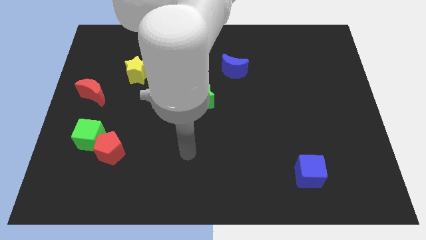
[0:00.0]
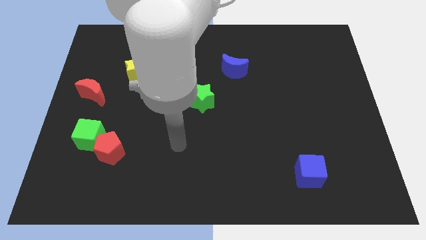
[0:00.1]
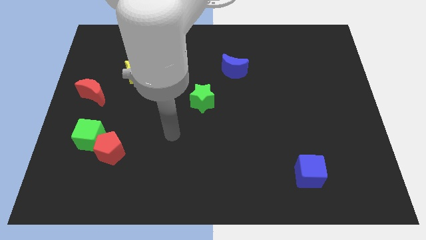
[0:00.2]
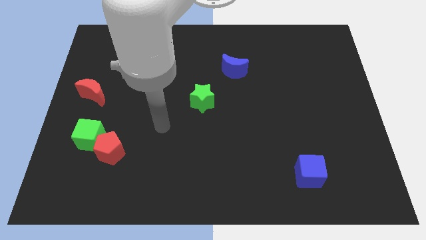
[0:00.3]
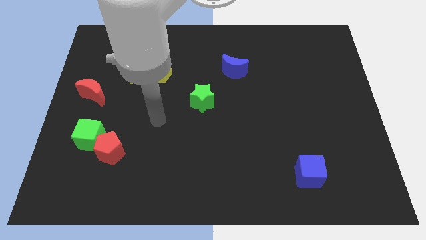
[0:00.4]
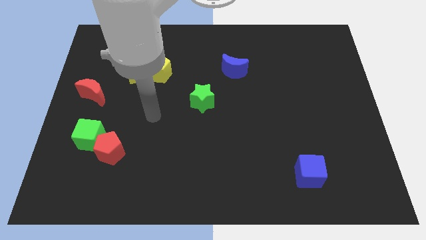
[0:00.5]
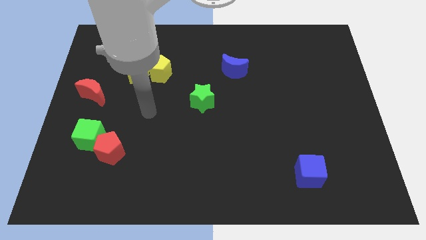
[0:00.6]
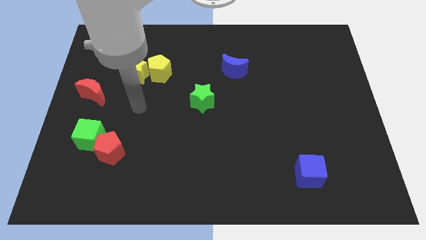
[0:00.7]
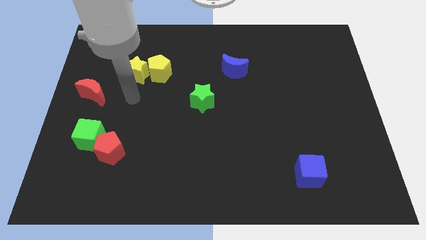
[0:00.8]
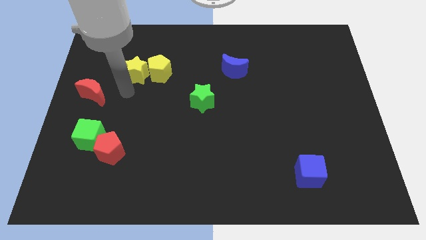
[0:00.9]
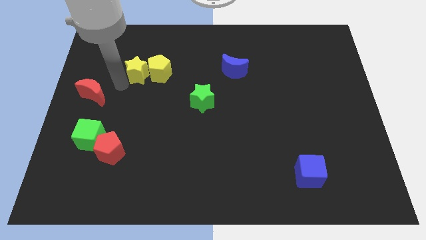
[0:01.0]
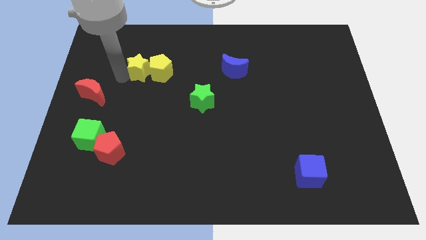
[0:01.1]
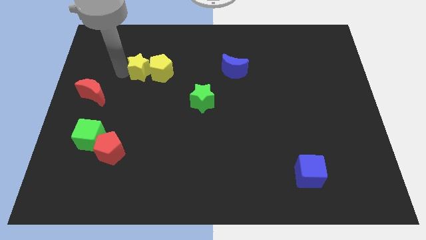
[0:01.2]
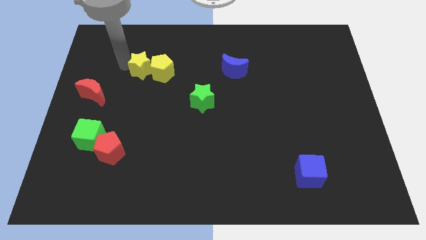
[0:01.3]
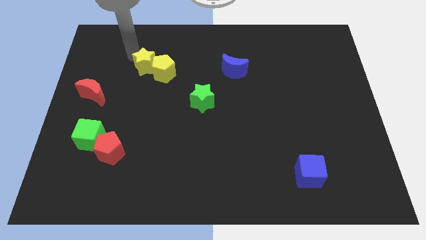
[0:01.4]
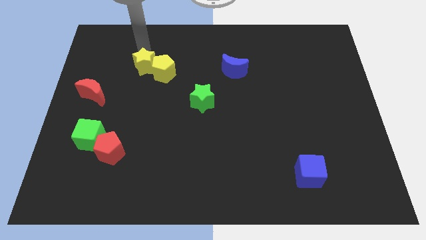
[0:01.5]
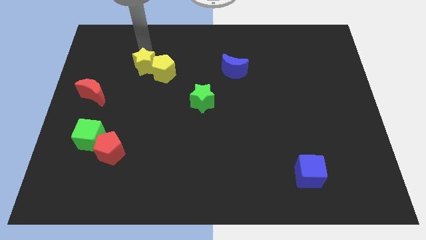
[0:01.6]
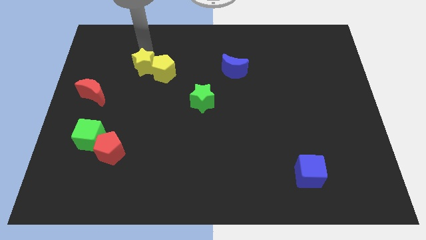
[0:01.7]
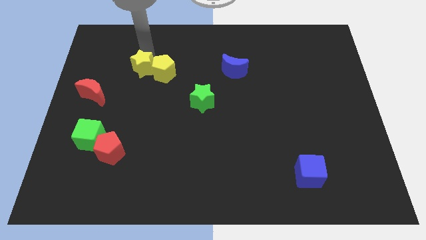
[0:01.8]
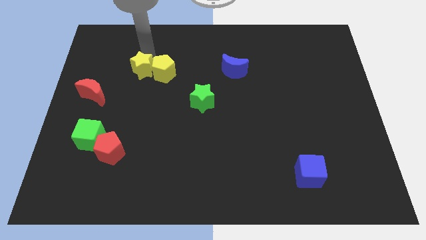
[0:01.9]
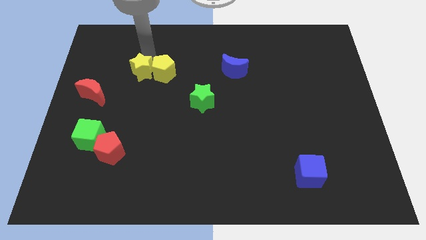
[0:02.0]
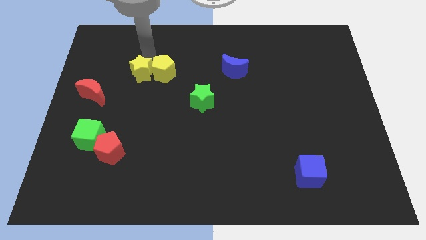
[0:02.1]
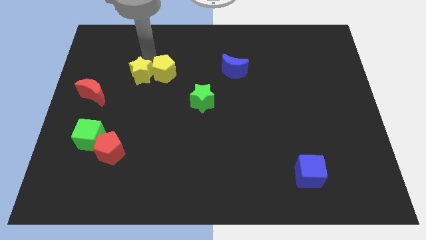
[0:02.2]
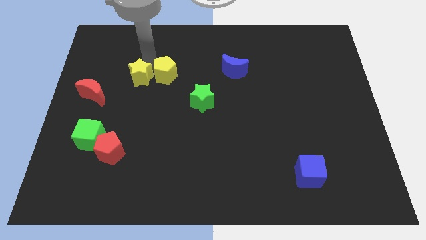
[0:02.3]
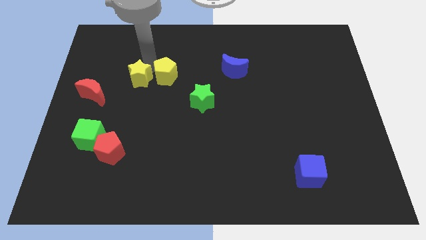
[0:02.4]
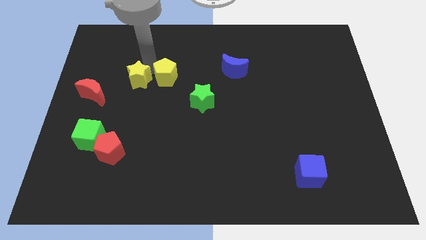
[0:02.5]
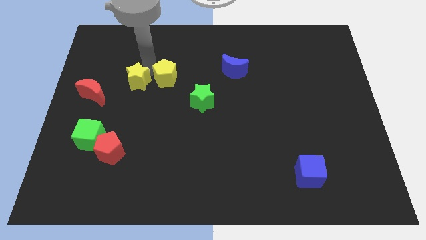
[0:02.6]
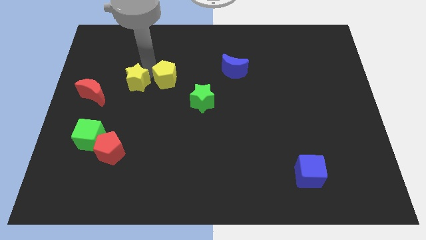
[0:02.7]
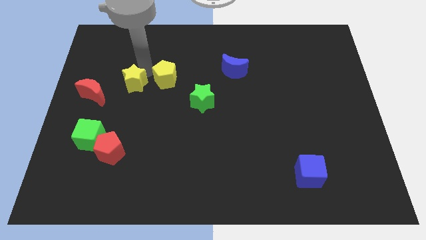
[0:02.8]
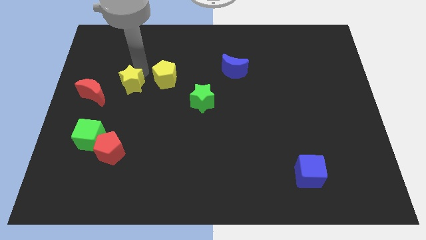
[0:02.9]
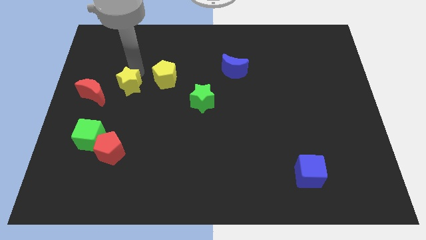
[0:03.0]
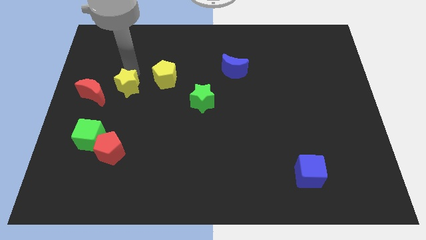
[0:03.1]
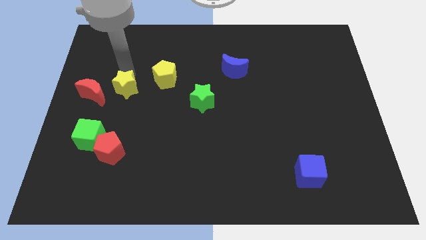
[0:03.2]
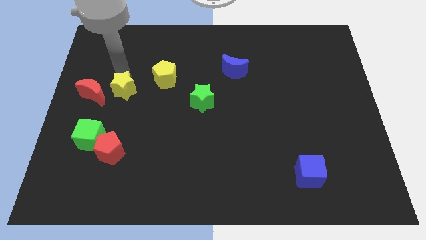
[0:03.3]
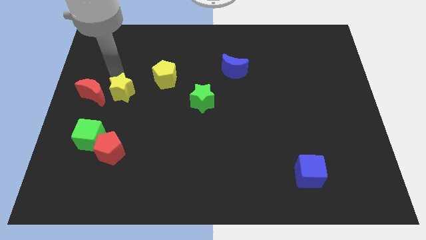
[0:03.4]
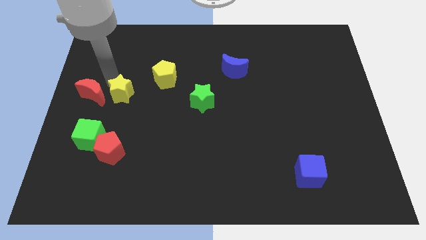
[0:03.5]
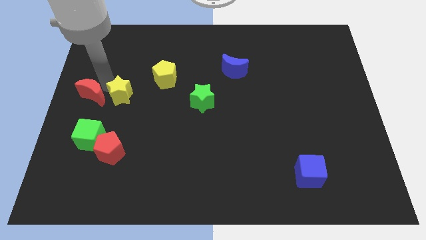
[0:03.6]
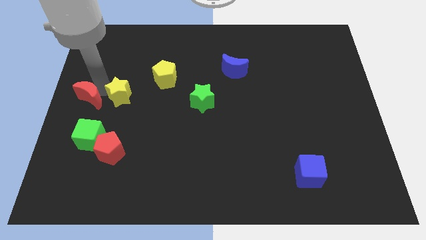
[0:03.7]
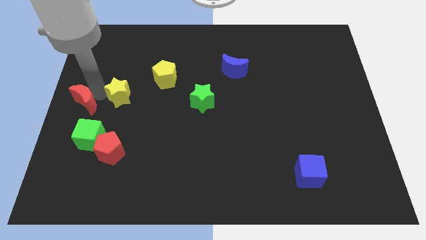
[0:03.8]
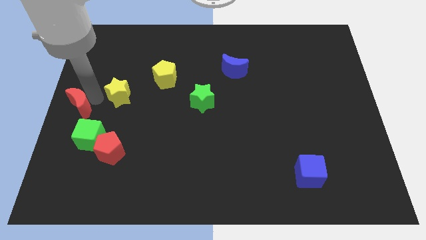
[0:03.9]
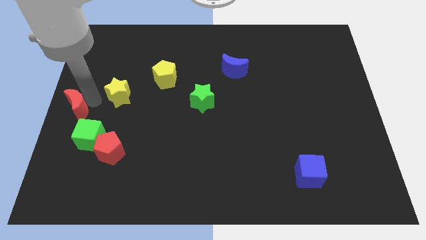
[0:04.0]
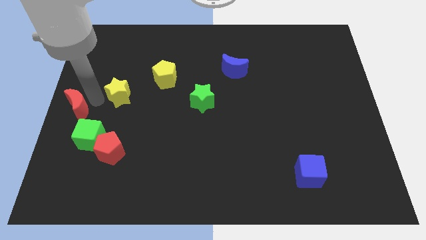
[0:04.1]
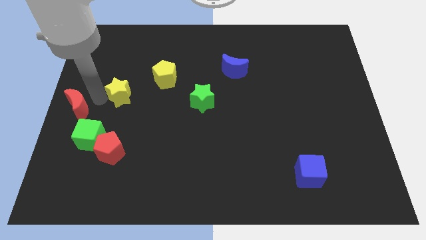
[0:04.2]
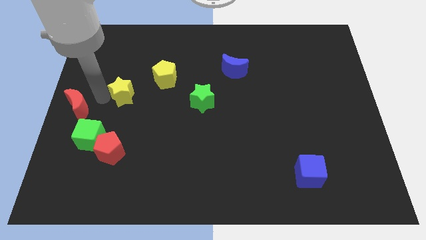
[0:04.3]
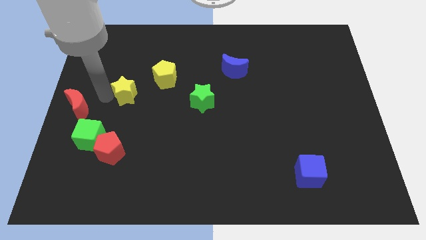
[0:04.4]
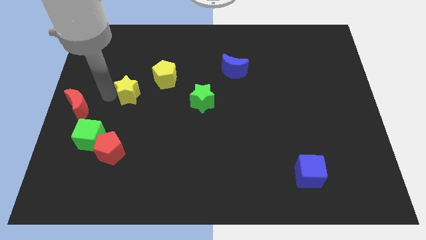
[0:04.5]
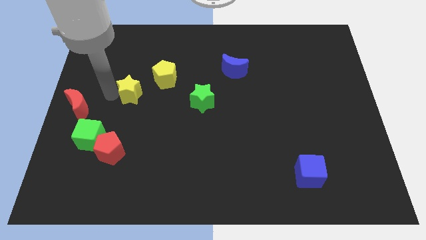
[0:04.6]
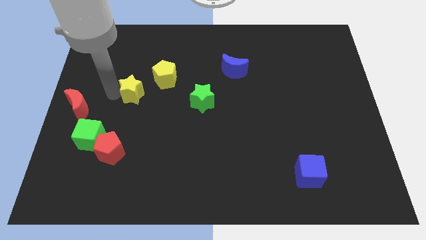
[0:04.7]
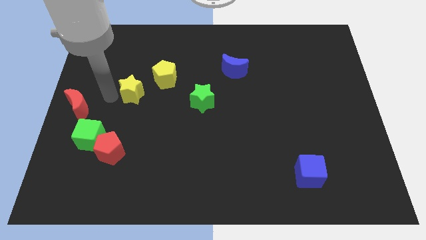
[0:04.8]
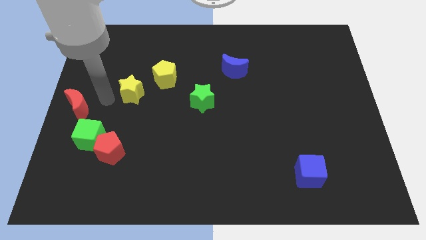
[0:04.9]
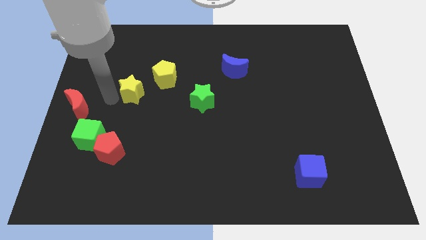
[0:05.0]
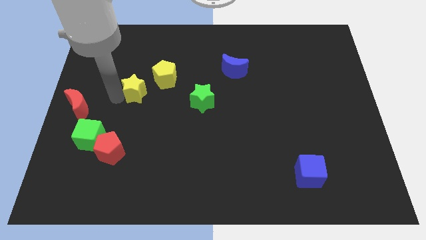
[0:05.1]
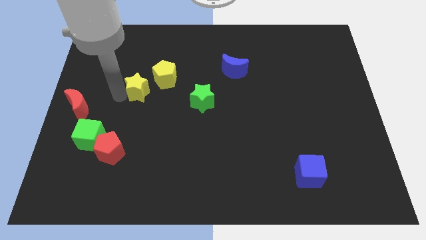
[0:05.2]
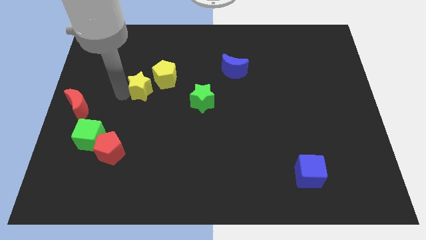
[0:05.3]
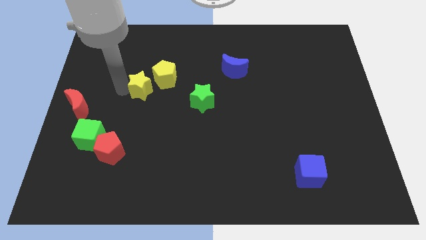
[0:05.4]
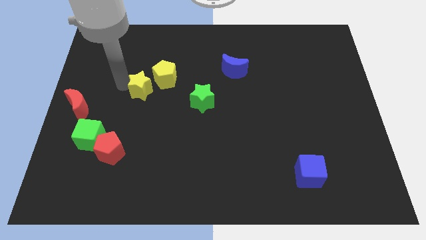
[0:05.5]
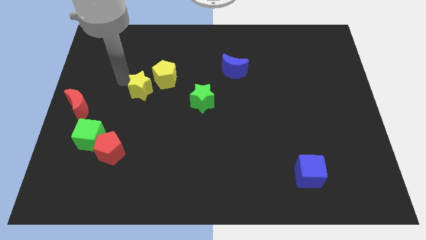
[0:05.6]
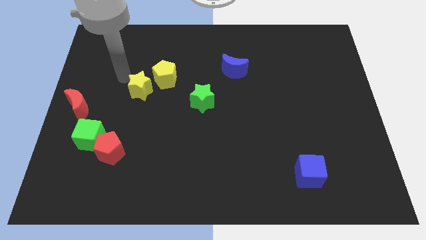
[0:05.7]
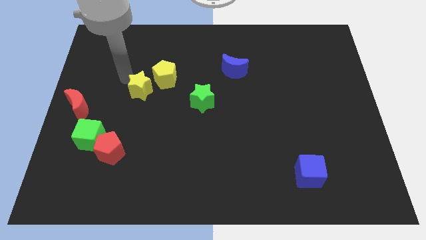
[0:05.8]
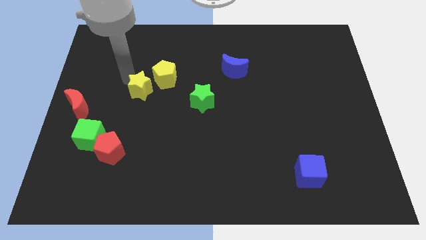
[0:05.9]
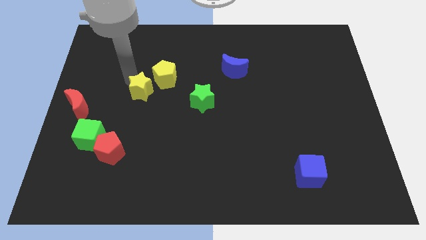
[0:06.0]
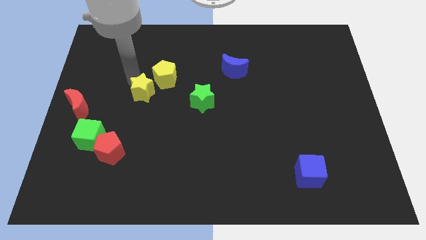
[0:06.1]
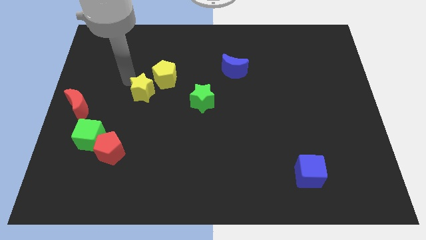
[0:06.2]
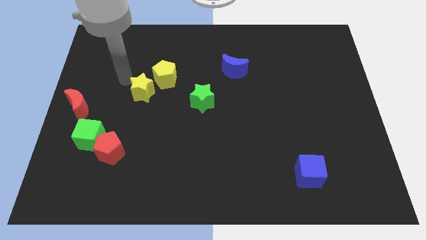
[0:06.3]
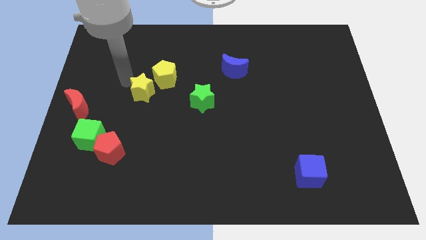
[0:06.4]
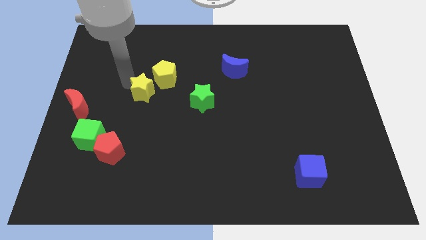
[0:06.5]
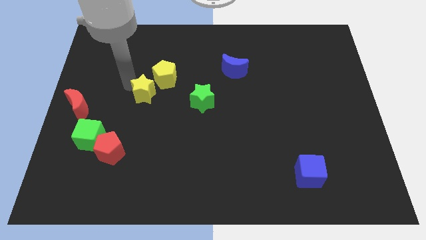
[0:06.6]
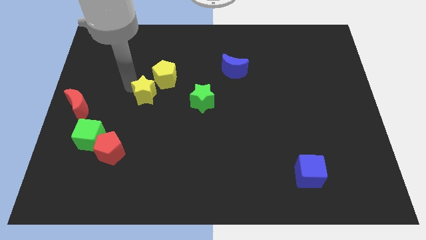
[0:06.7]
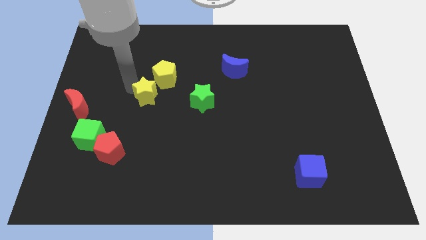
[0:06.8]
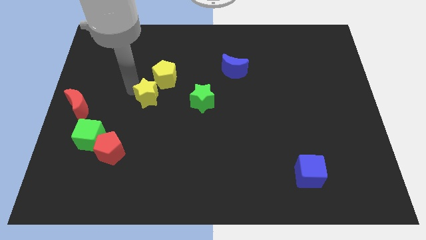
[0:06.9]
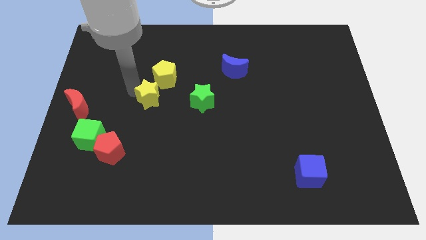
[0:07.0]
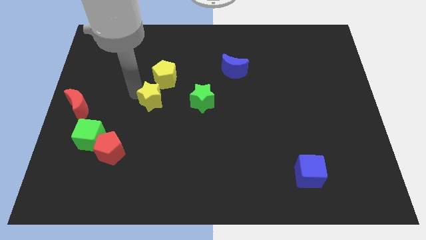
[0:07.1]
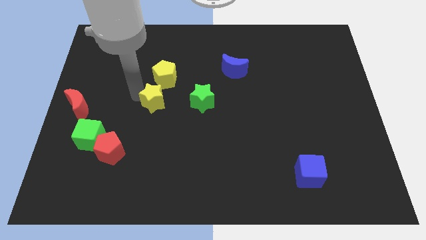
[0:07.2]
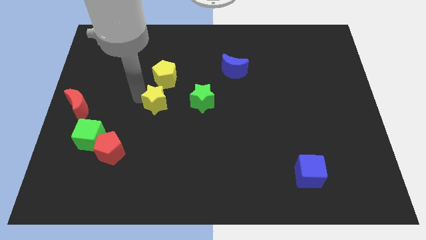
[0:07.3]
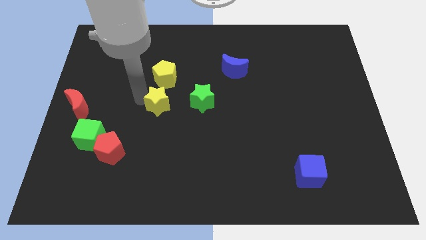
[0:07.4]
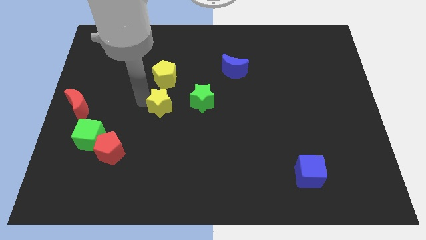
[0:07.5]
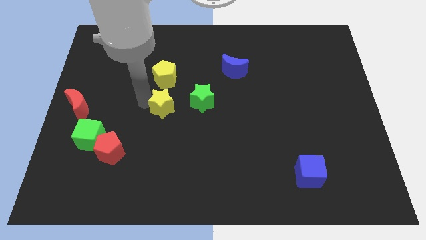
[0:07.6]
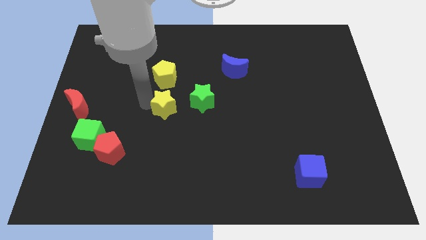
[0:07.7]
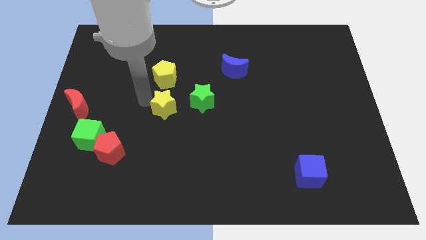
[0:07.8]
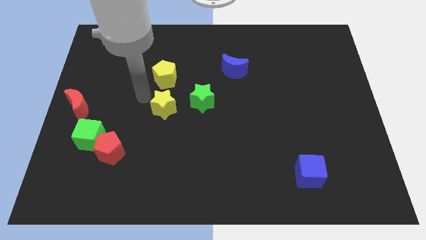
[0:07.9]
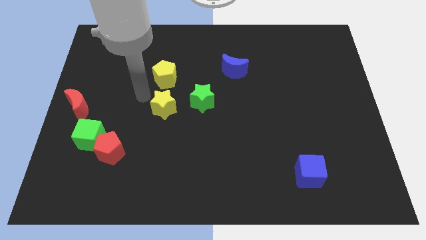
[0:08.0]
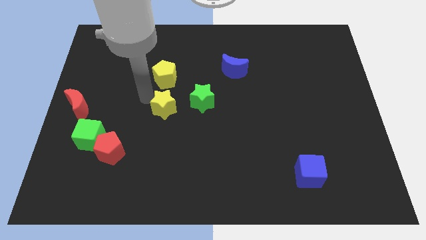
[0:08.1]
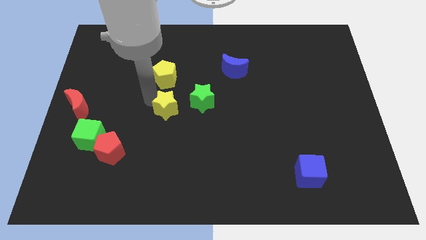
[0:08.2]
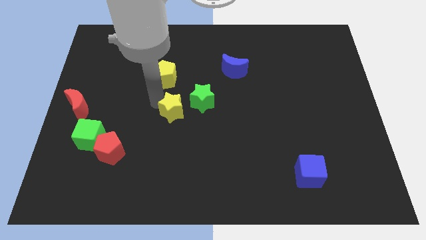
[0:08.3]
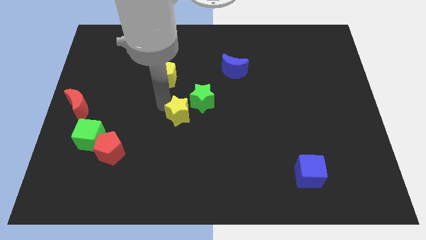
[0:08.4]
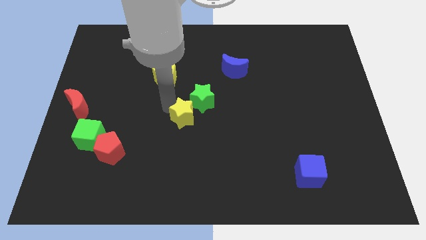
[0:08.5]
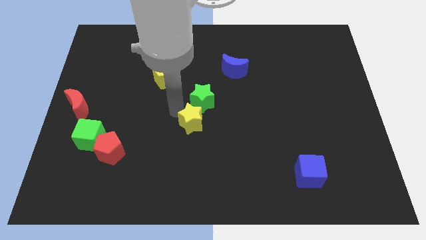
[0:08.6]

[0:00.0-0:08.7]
move the yellow star downwards and then right
